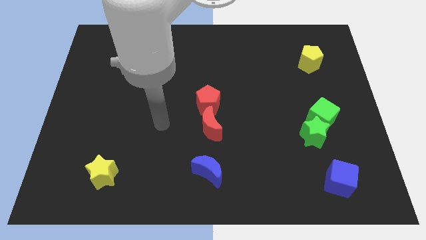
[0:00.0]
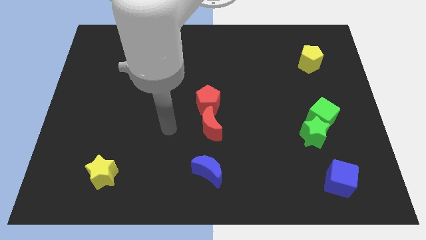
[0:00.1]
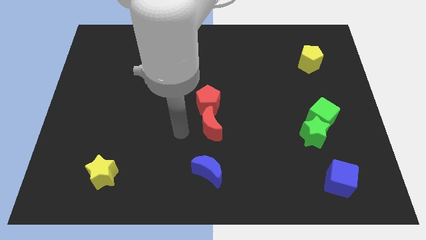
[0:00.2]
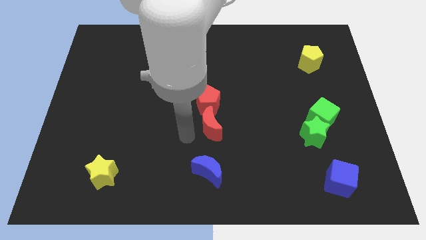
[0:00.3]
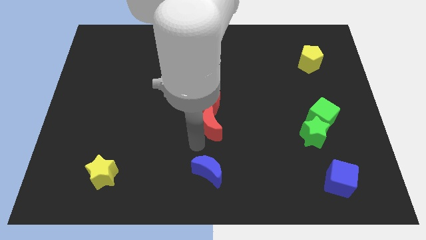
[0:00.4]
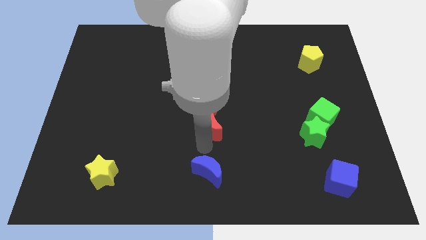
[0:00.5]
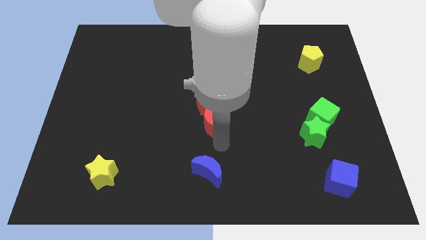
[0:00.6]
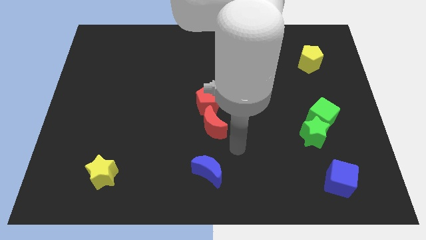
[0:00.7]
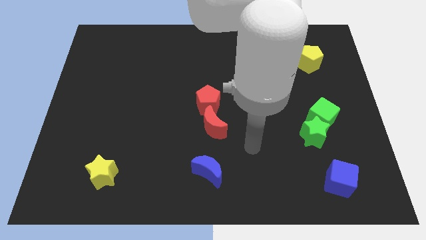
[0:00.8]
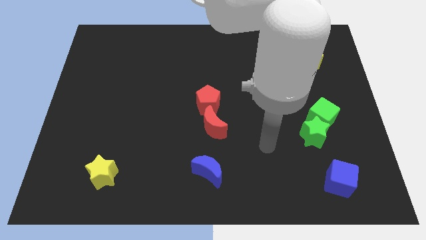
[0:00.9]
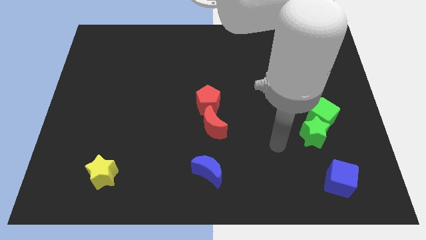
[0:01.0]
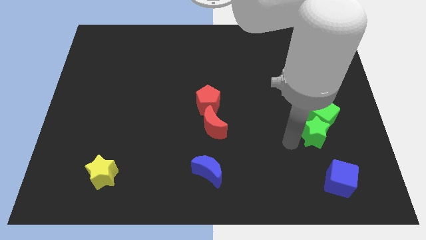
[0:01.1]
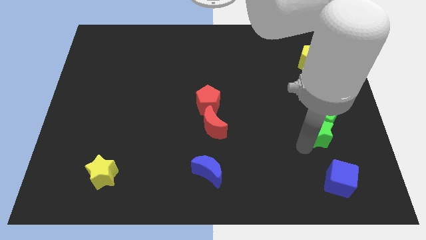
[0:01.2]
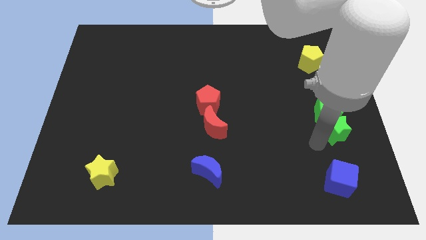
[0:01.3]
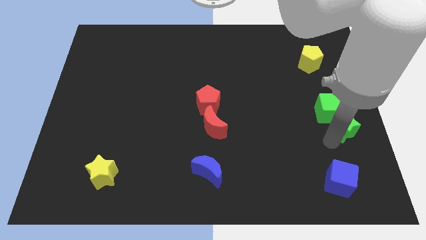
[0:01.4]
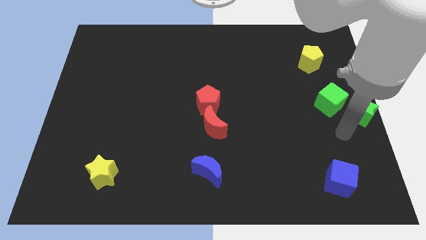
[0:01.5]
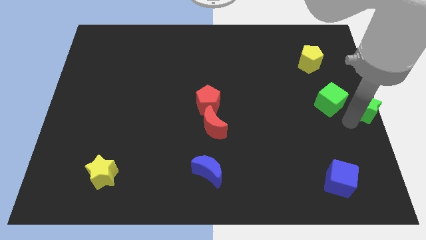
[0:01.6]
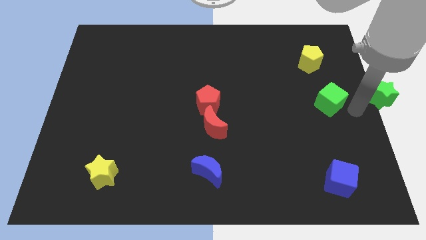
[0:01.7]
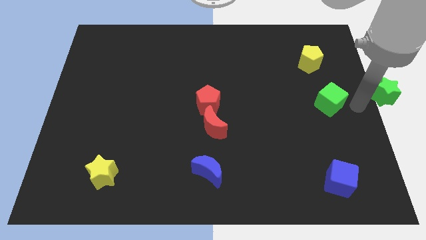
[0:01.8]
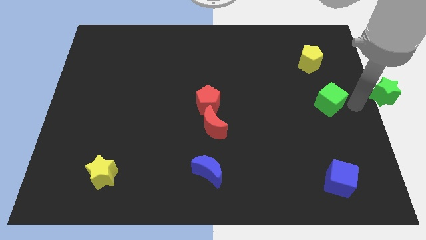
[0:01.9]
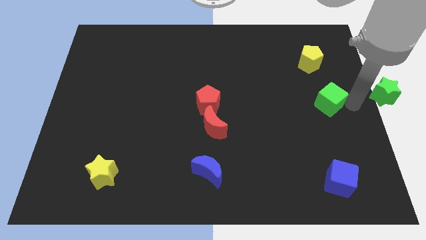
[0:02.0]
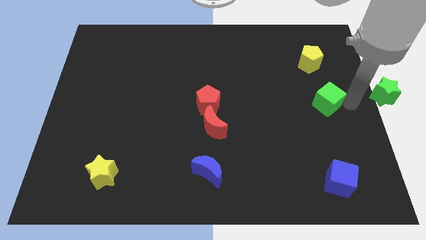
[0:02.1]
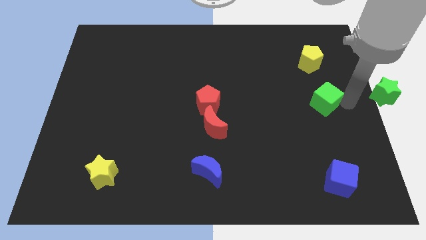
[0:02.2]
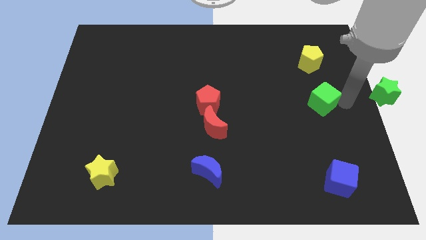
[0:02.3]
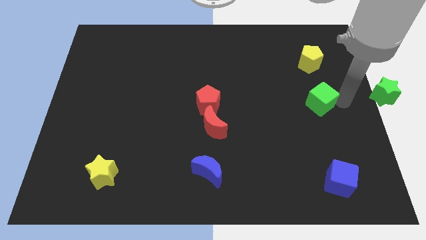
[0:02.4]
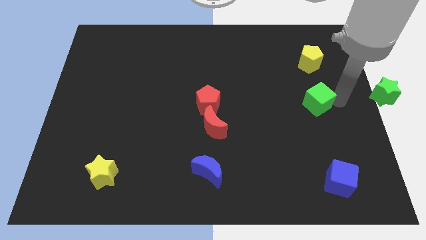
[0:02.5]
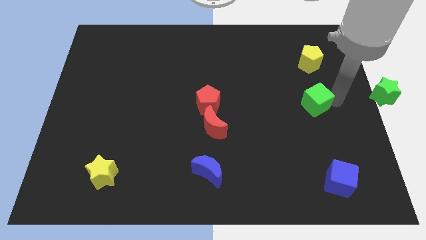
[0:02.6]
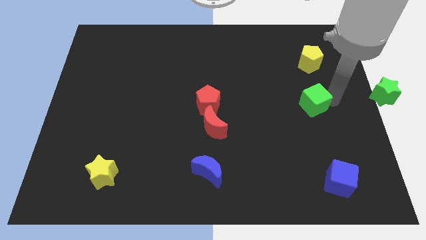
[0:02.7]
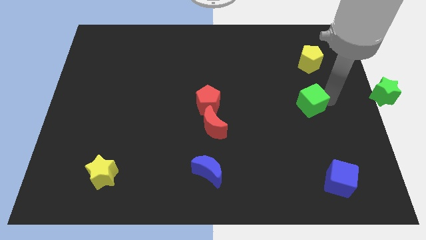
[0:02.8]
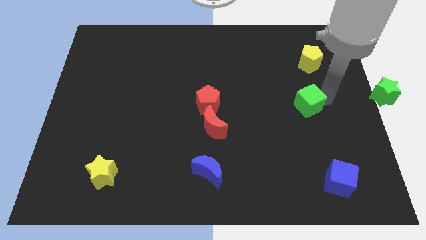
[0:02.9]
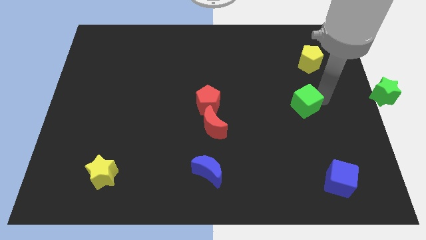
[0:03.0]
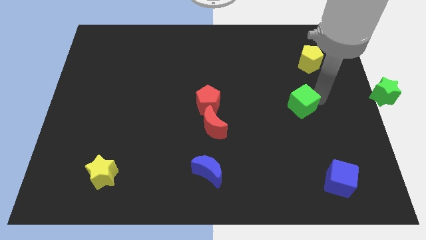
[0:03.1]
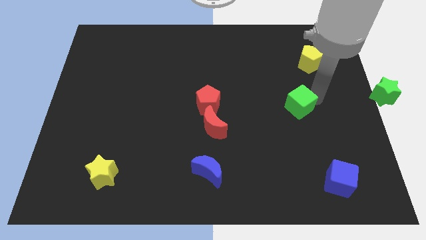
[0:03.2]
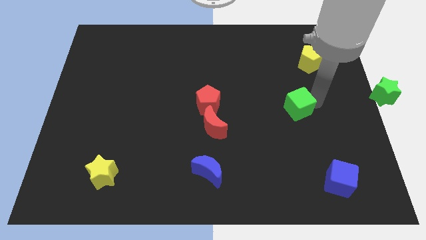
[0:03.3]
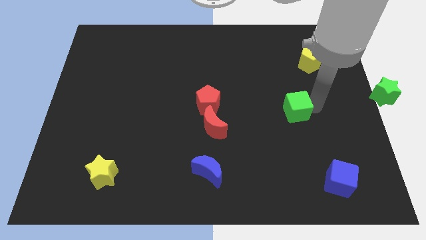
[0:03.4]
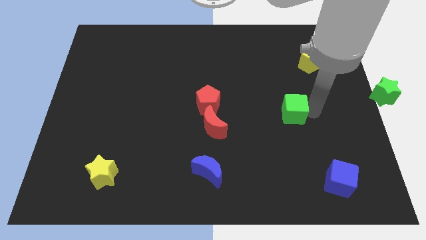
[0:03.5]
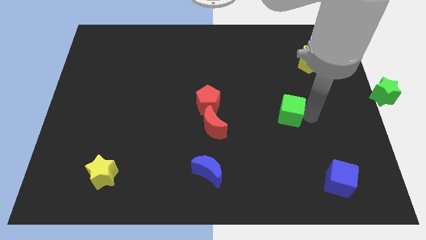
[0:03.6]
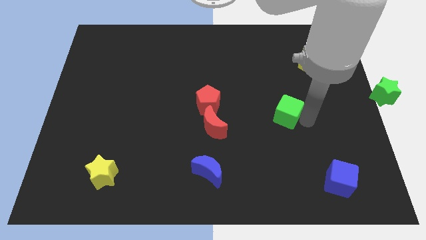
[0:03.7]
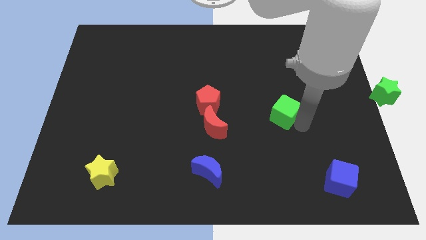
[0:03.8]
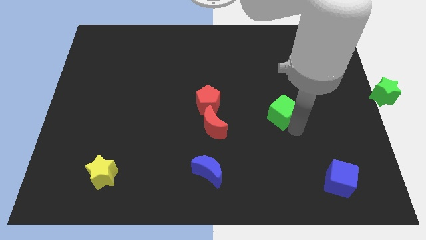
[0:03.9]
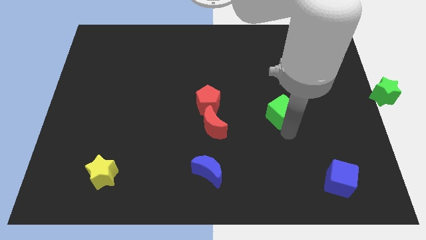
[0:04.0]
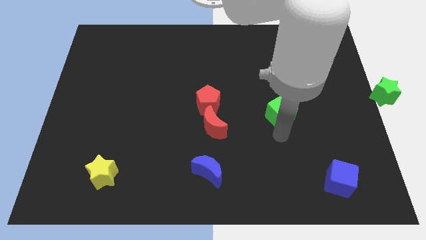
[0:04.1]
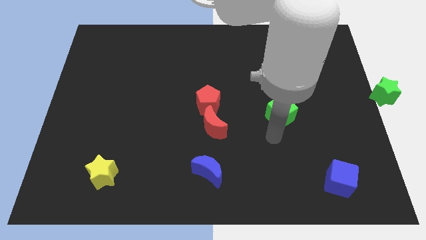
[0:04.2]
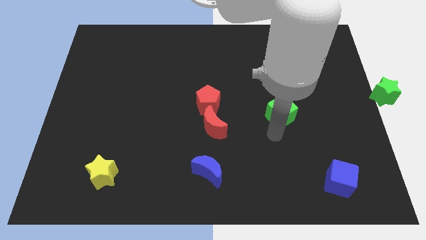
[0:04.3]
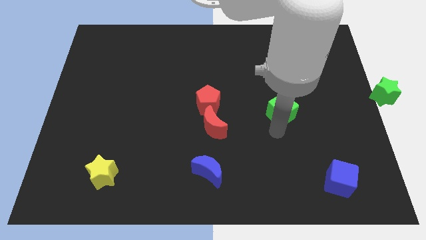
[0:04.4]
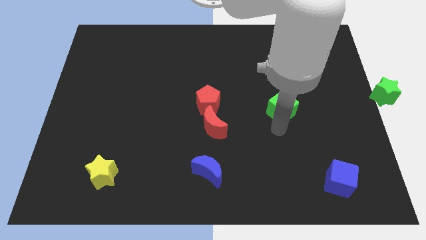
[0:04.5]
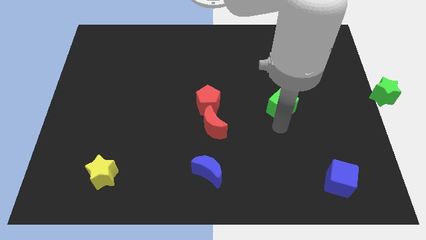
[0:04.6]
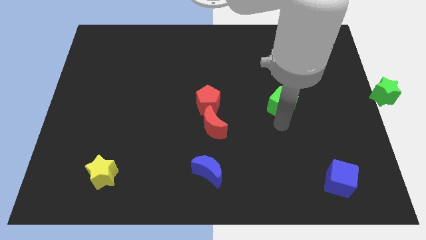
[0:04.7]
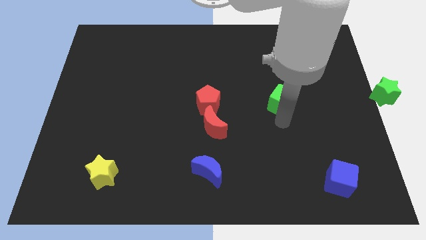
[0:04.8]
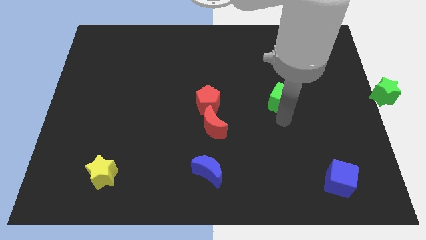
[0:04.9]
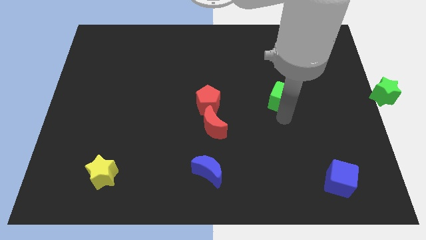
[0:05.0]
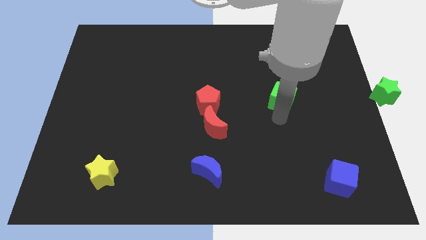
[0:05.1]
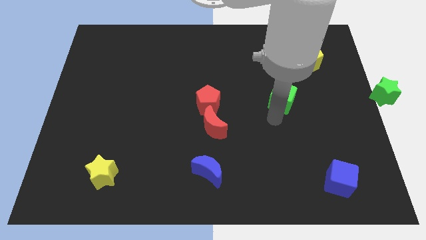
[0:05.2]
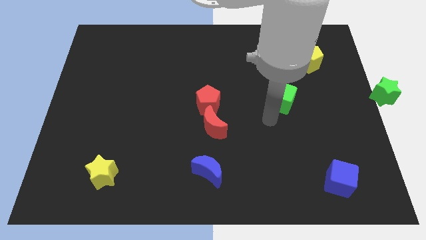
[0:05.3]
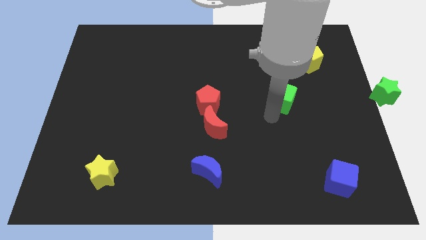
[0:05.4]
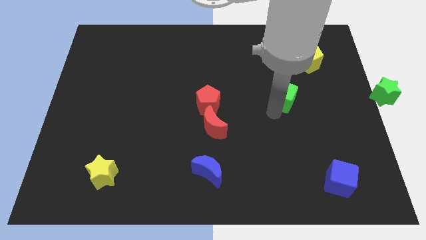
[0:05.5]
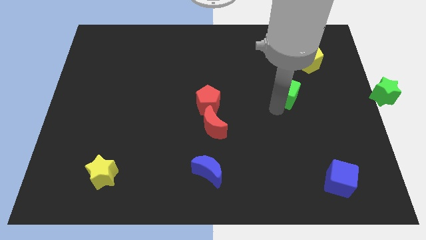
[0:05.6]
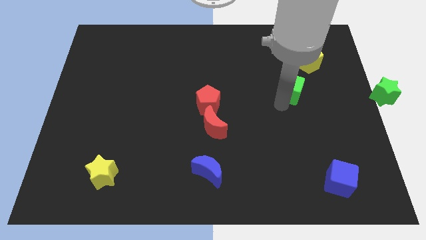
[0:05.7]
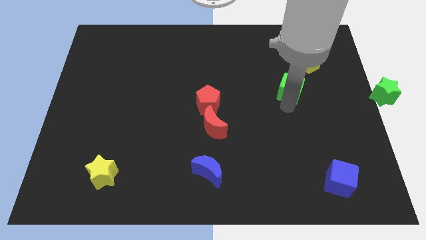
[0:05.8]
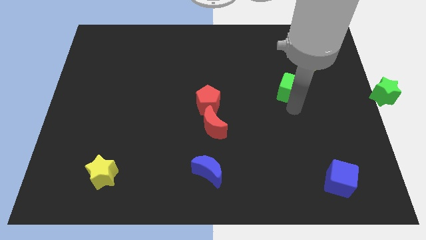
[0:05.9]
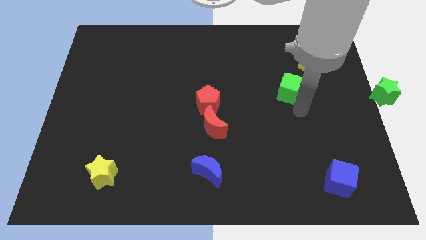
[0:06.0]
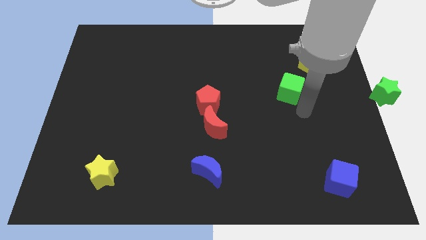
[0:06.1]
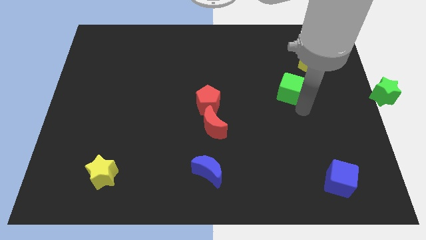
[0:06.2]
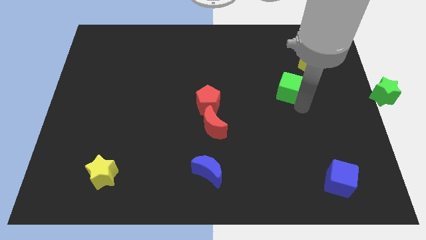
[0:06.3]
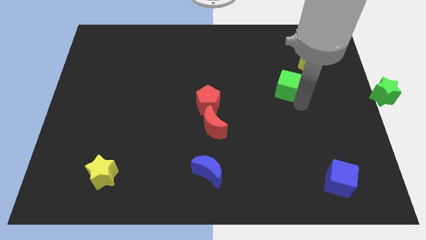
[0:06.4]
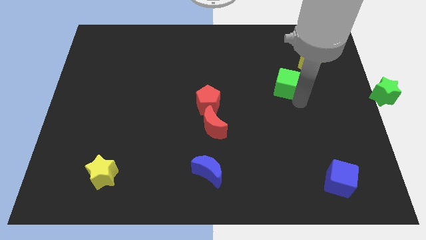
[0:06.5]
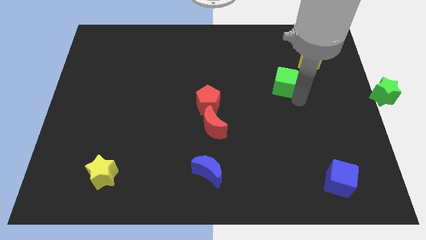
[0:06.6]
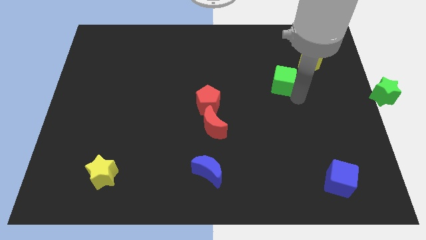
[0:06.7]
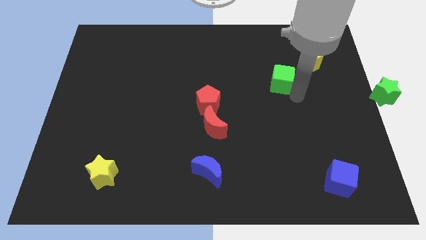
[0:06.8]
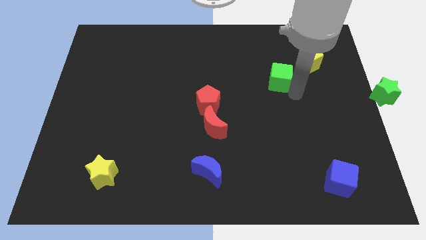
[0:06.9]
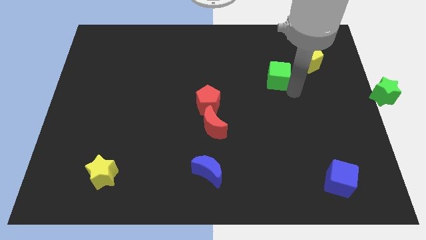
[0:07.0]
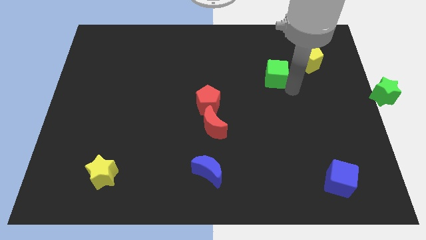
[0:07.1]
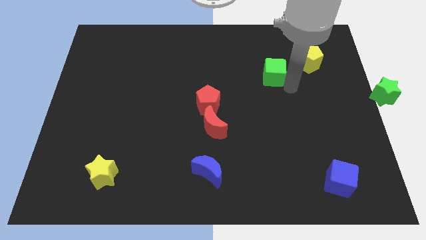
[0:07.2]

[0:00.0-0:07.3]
move the green cube to the left side of the yellow pentagon

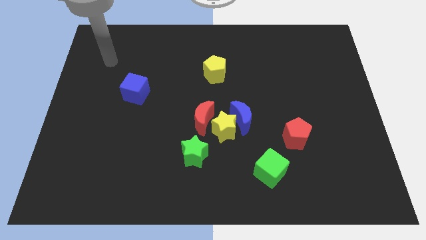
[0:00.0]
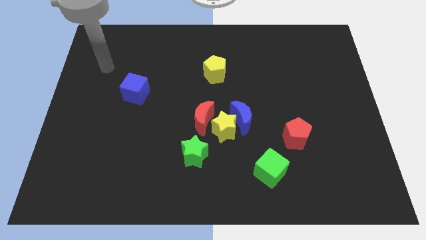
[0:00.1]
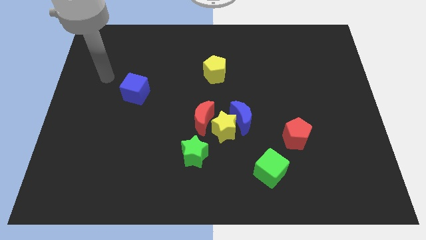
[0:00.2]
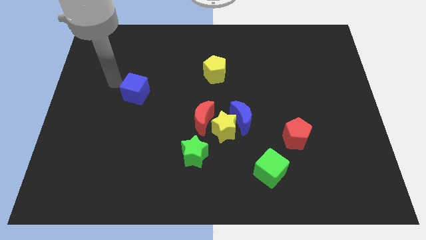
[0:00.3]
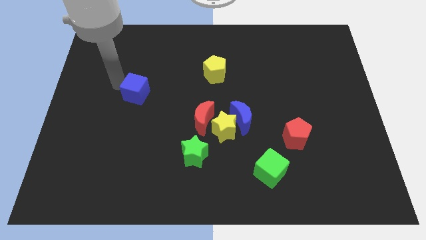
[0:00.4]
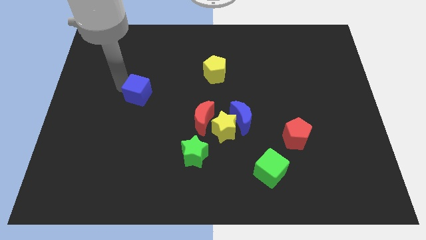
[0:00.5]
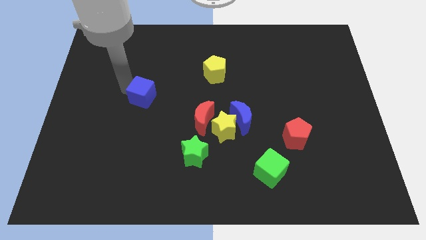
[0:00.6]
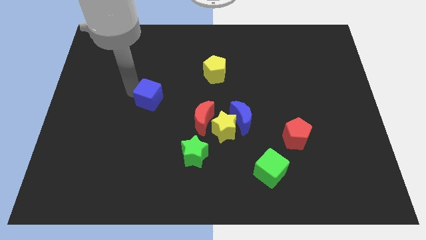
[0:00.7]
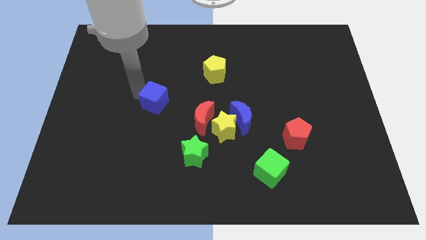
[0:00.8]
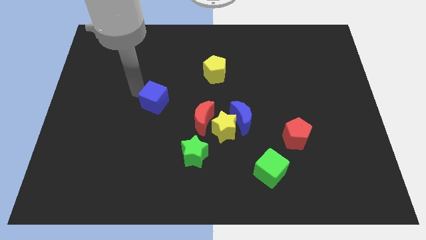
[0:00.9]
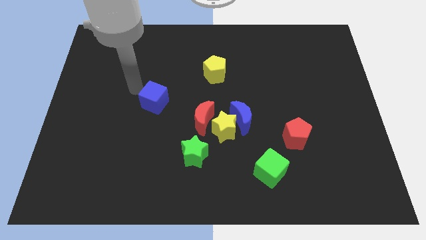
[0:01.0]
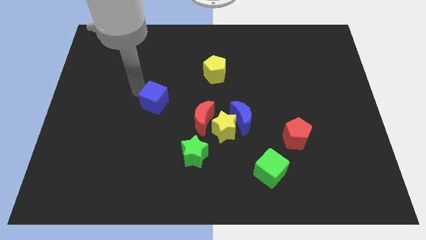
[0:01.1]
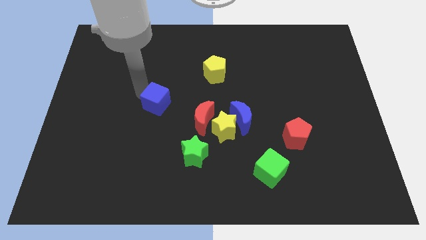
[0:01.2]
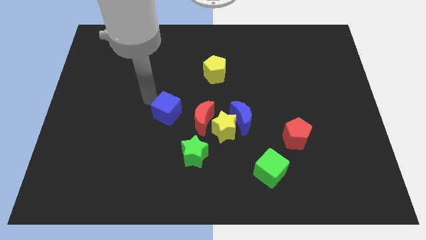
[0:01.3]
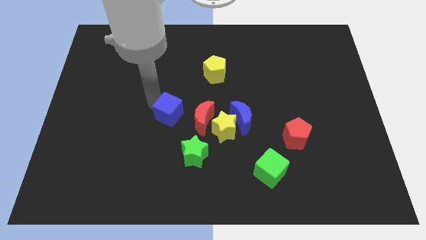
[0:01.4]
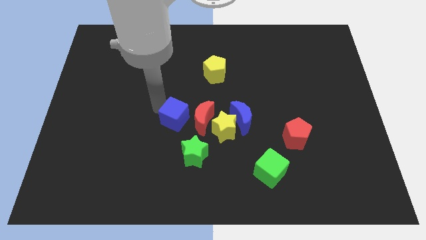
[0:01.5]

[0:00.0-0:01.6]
move the blue cube just left of the blue moon
